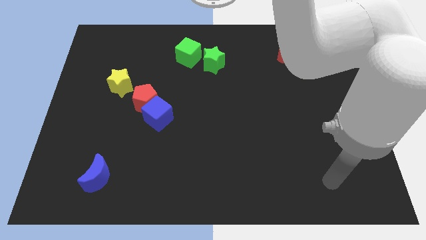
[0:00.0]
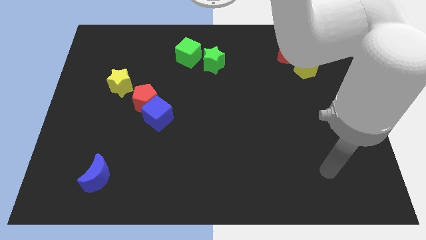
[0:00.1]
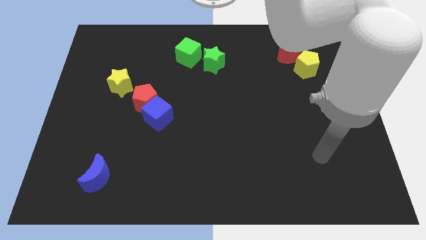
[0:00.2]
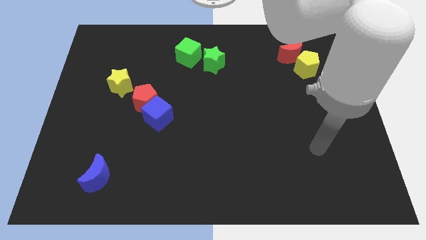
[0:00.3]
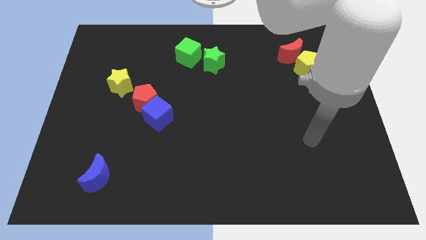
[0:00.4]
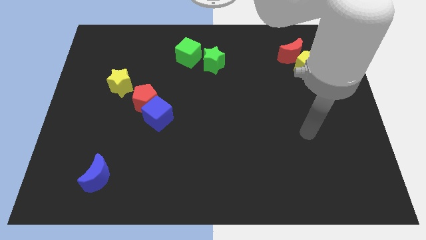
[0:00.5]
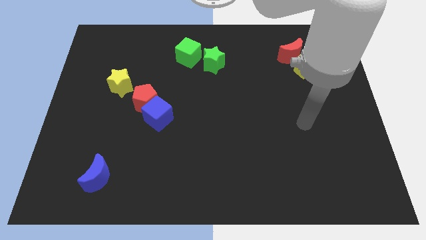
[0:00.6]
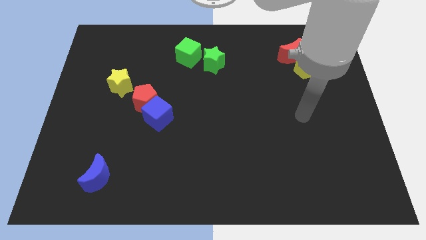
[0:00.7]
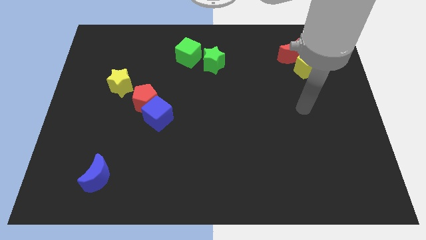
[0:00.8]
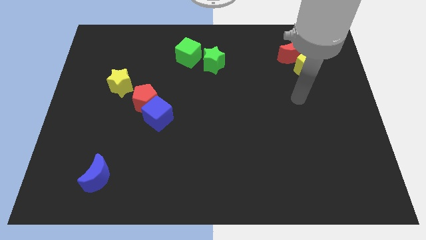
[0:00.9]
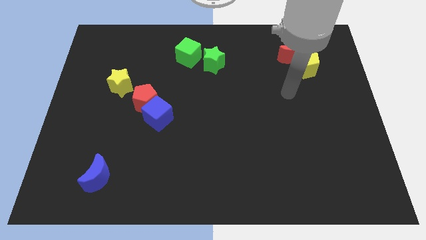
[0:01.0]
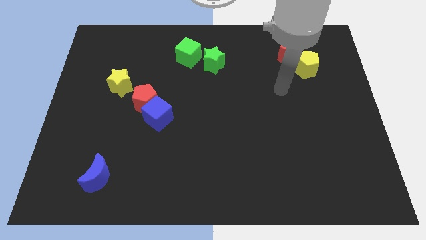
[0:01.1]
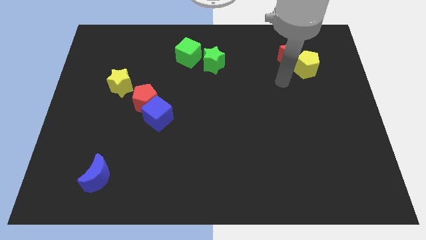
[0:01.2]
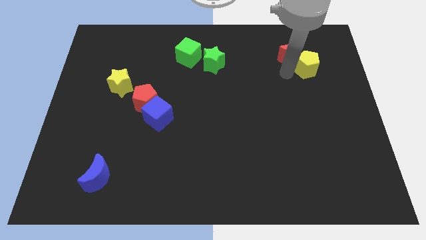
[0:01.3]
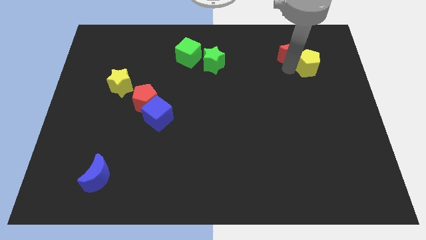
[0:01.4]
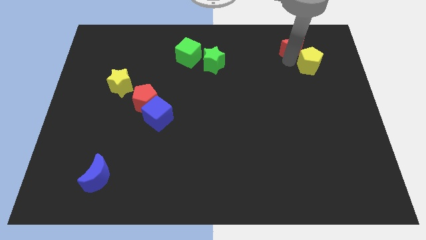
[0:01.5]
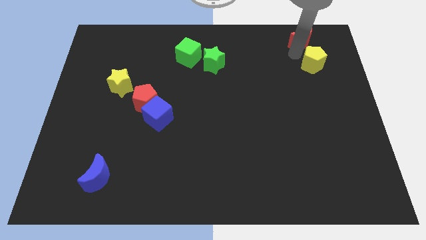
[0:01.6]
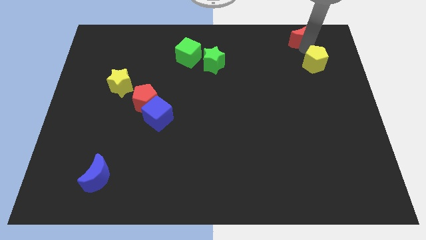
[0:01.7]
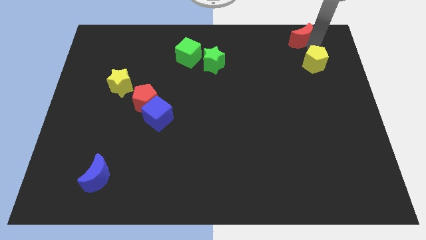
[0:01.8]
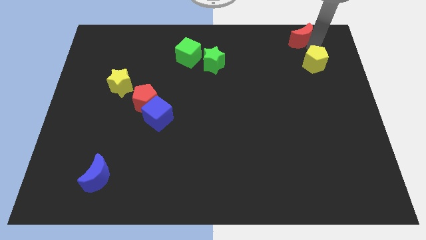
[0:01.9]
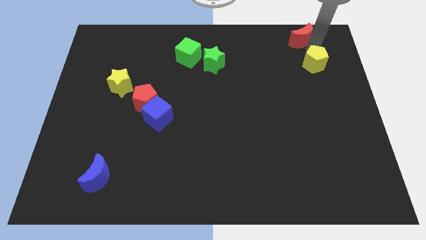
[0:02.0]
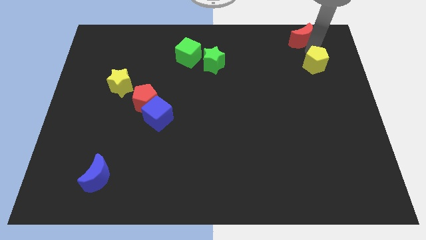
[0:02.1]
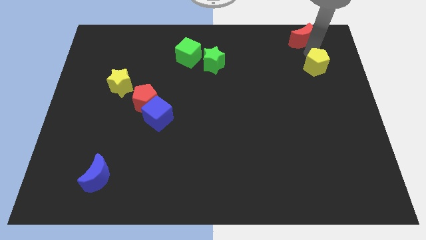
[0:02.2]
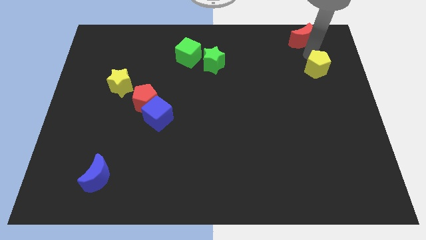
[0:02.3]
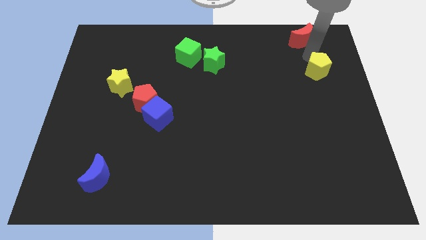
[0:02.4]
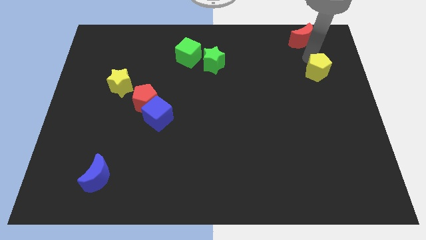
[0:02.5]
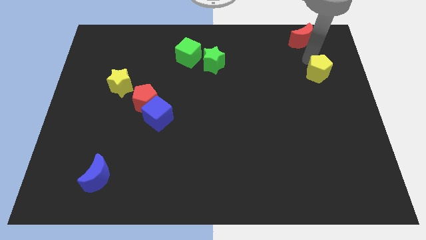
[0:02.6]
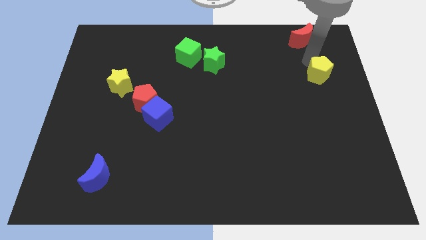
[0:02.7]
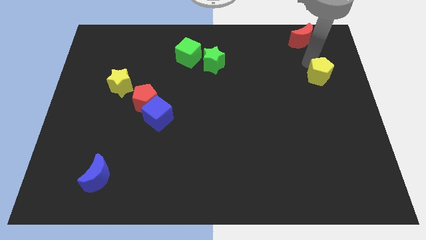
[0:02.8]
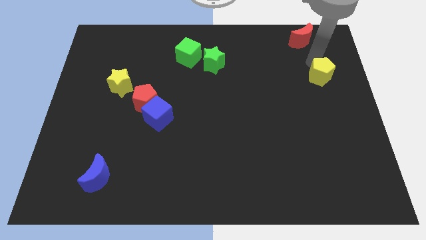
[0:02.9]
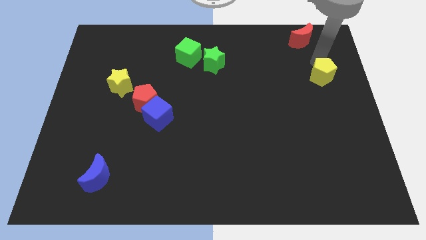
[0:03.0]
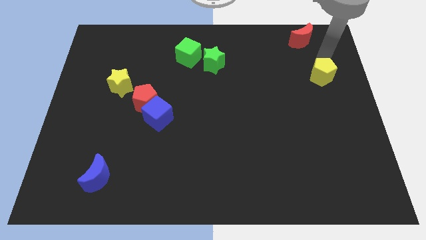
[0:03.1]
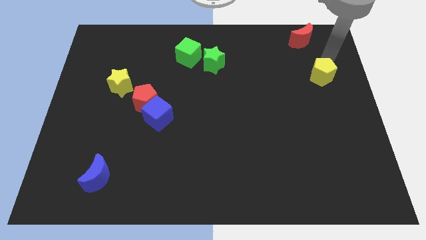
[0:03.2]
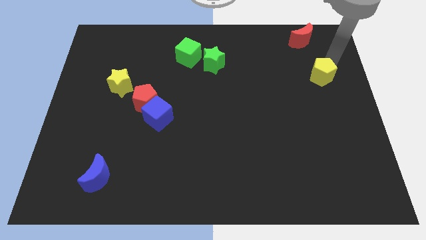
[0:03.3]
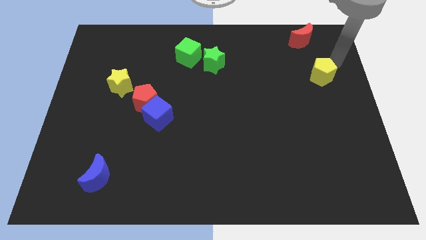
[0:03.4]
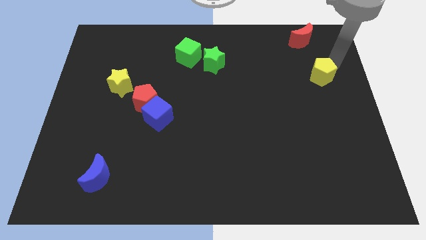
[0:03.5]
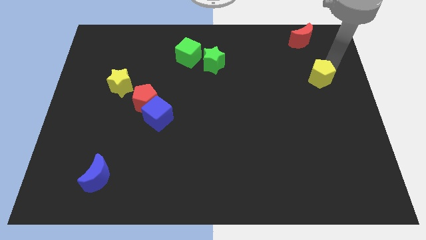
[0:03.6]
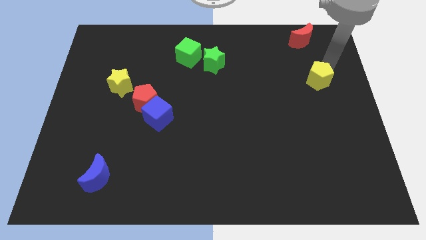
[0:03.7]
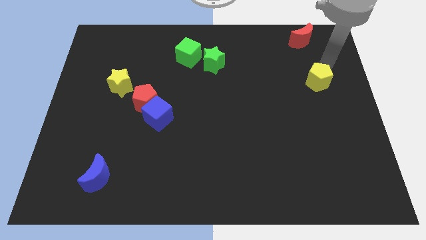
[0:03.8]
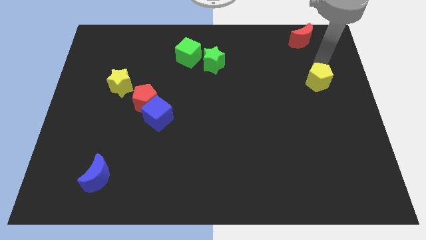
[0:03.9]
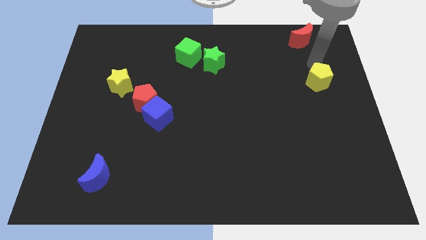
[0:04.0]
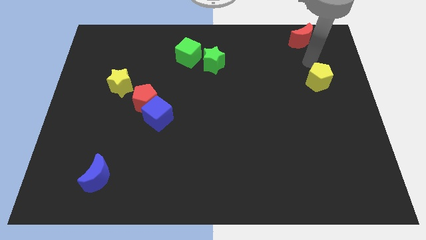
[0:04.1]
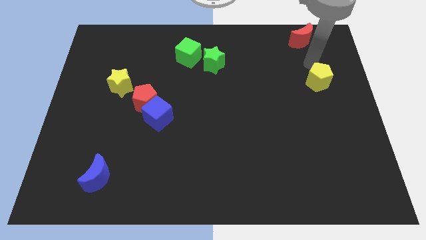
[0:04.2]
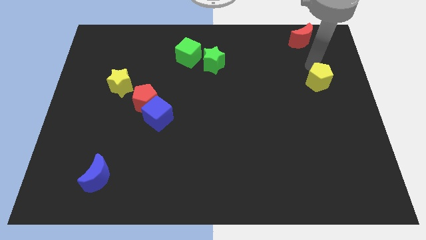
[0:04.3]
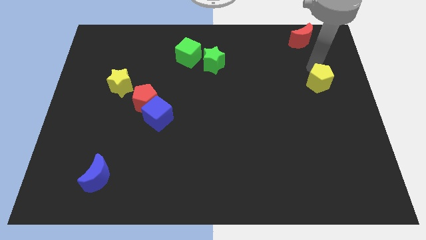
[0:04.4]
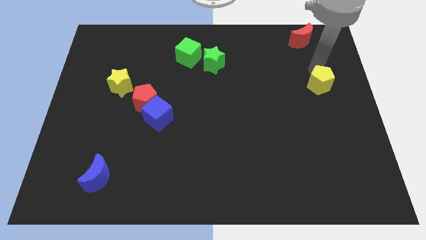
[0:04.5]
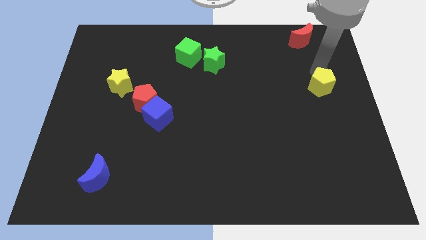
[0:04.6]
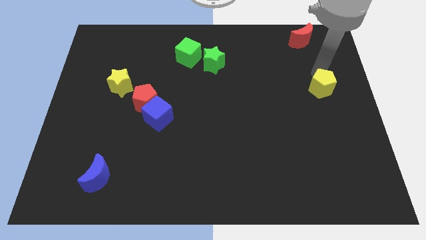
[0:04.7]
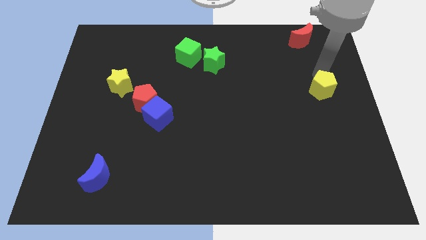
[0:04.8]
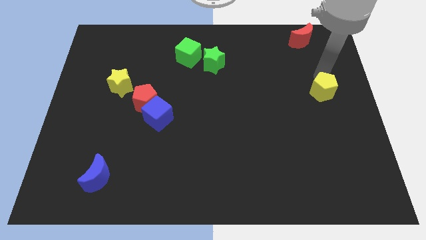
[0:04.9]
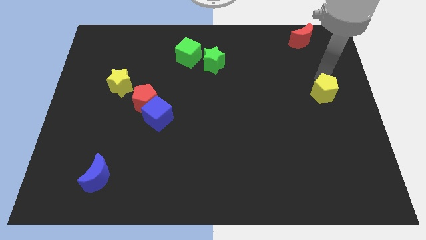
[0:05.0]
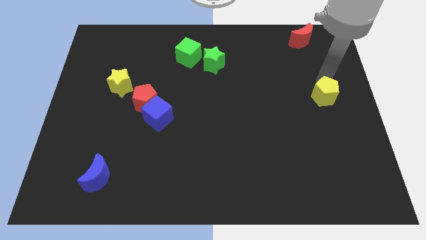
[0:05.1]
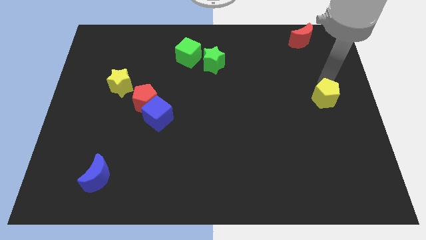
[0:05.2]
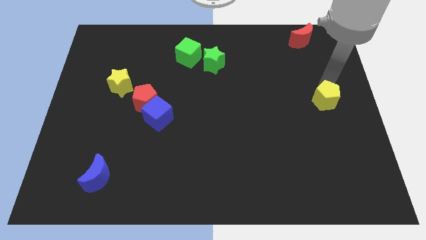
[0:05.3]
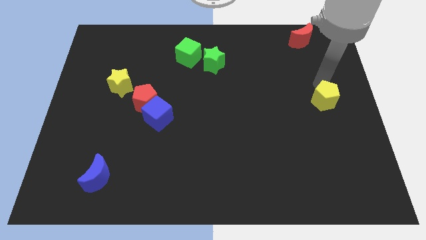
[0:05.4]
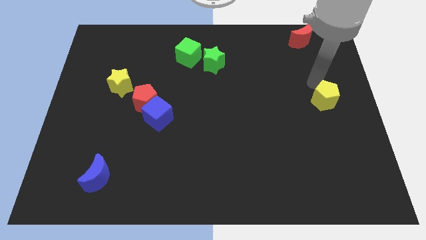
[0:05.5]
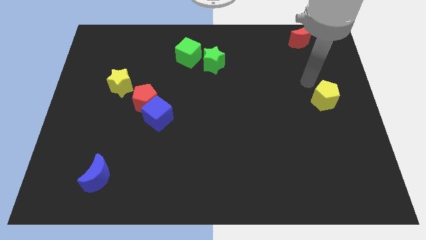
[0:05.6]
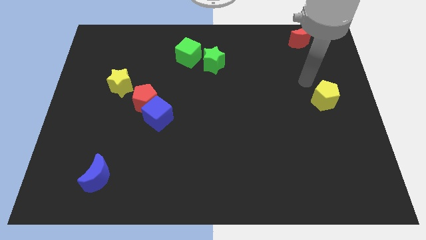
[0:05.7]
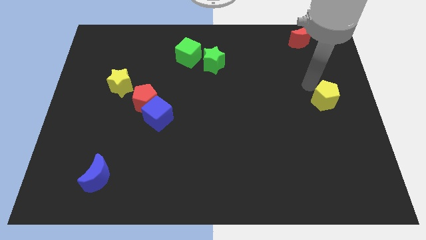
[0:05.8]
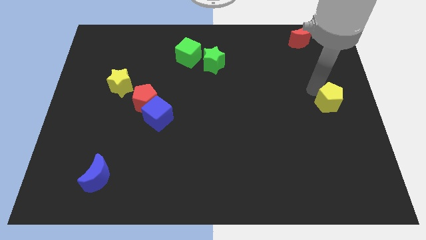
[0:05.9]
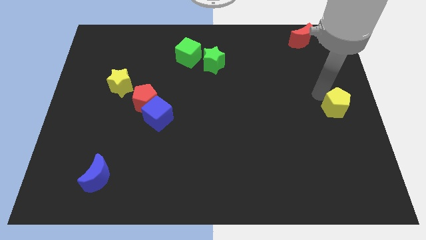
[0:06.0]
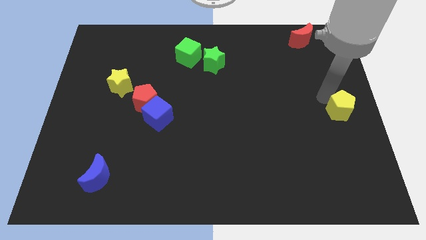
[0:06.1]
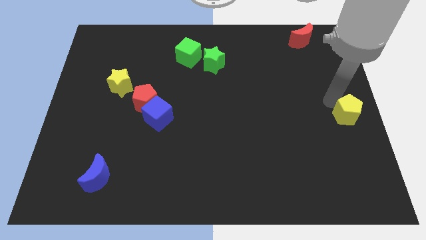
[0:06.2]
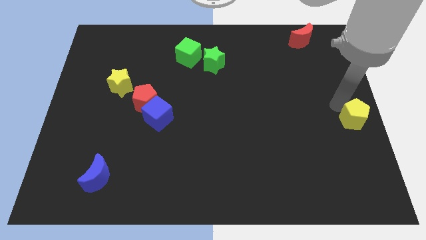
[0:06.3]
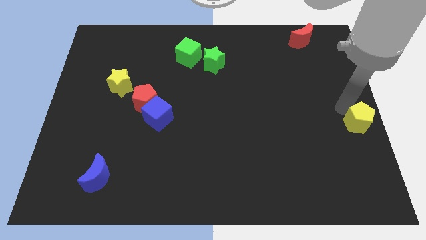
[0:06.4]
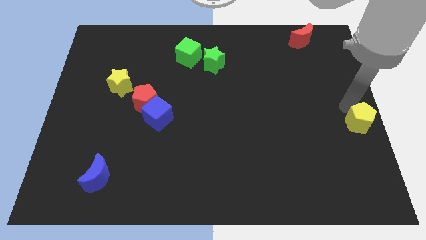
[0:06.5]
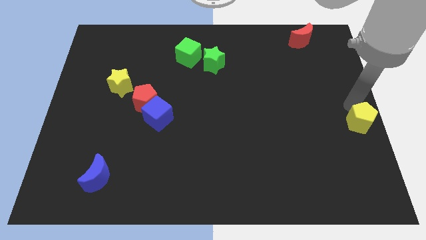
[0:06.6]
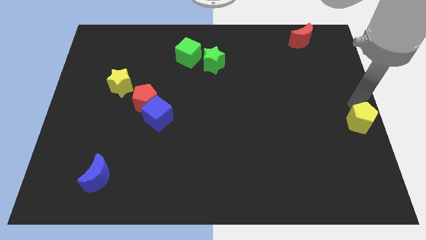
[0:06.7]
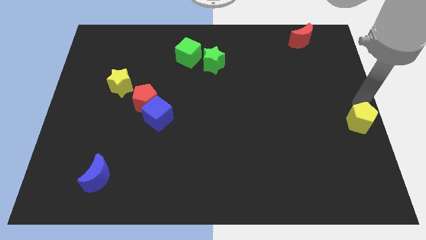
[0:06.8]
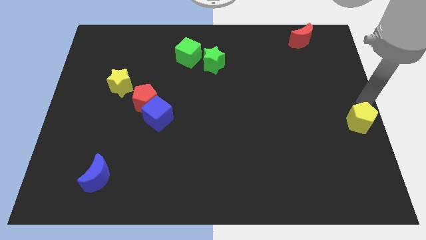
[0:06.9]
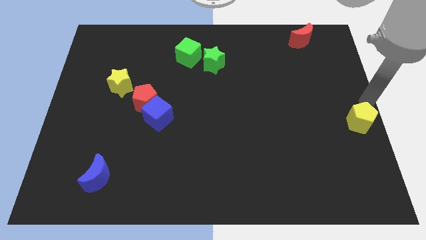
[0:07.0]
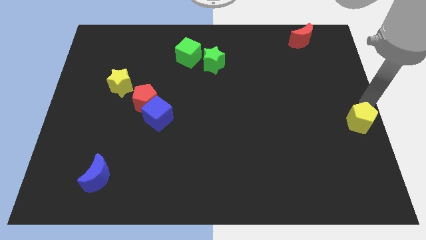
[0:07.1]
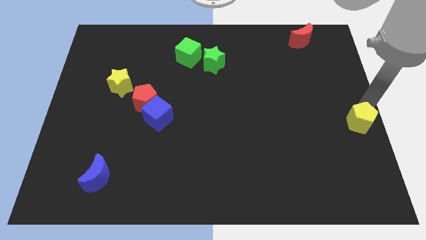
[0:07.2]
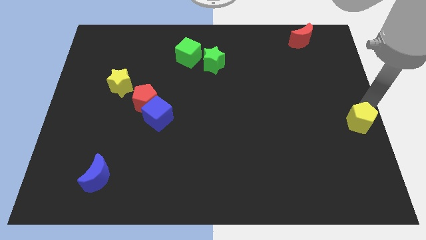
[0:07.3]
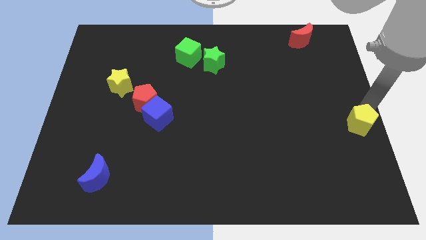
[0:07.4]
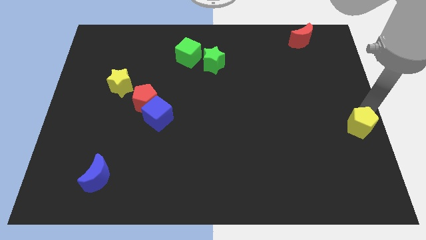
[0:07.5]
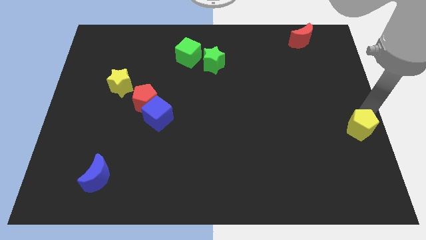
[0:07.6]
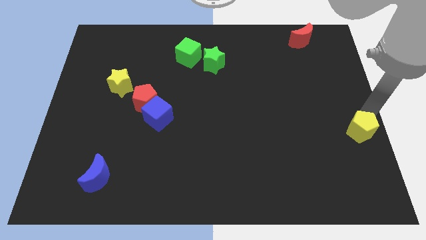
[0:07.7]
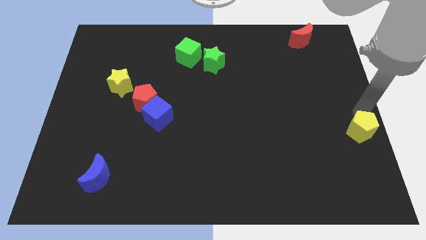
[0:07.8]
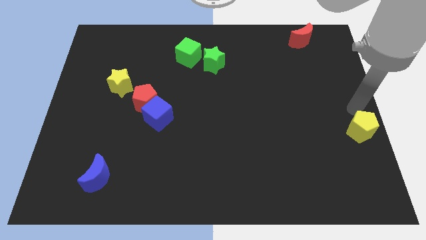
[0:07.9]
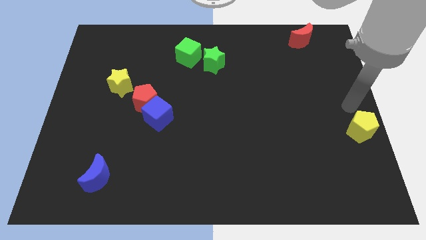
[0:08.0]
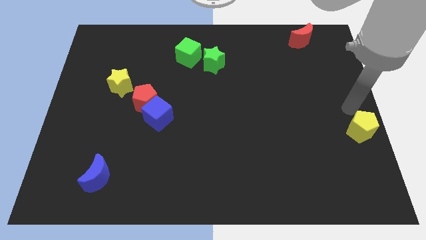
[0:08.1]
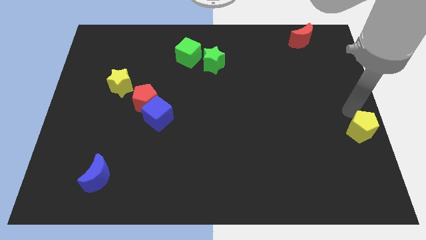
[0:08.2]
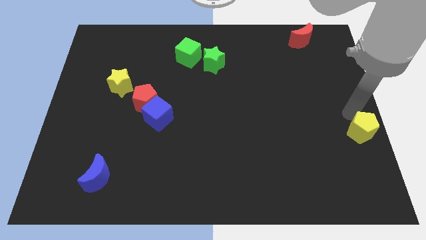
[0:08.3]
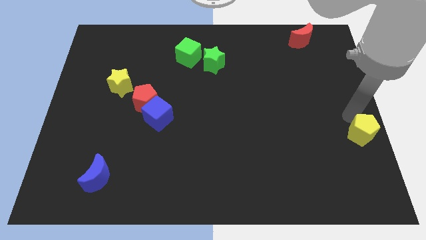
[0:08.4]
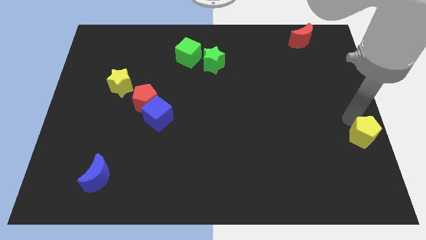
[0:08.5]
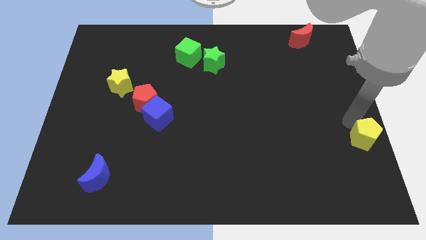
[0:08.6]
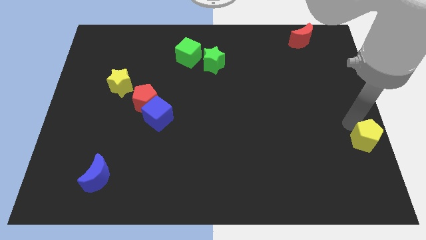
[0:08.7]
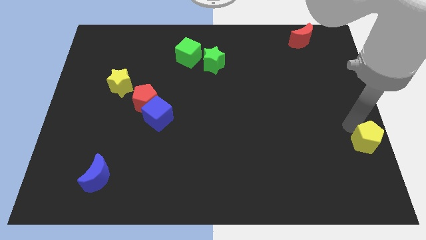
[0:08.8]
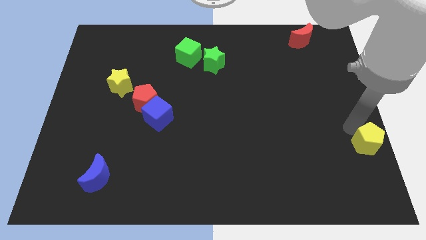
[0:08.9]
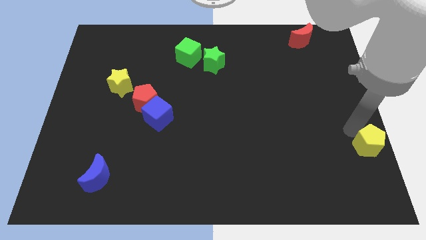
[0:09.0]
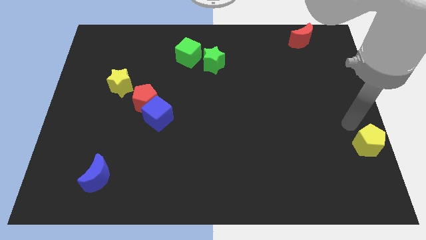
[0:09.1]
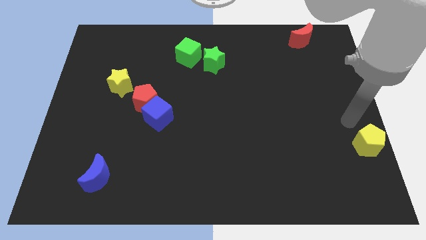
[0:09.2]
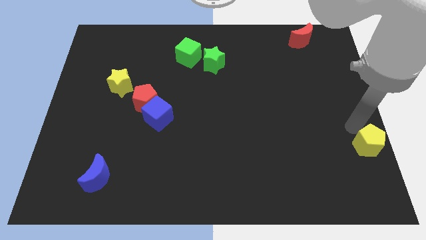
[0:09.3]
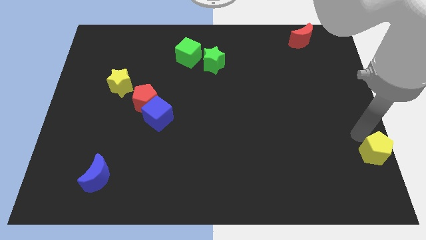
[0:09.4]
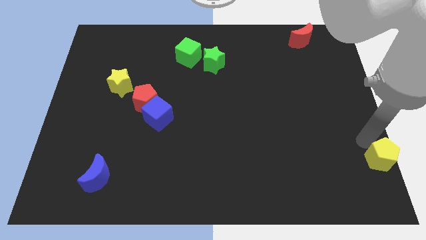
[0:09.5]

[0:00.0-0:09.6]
put the yellow pentagon to the lower right corner
